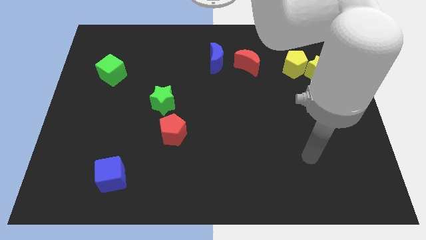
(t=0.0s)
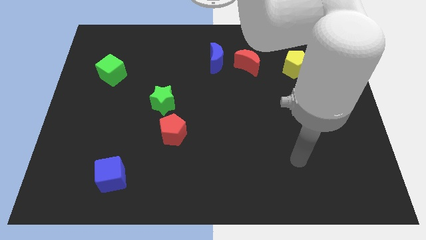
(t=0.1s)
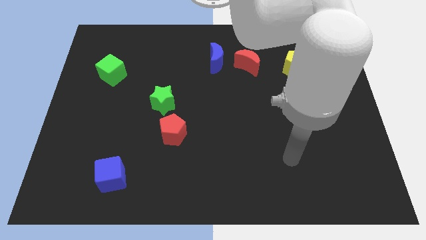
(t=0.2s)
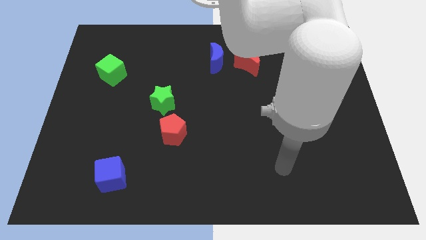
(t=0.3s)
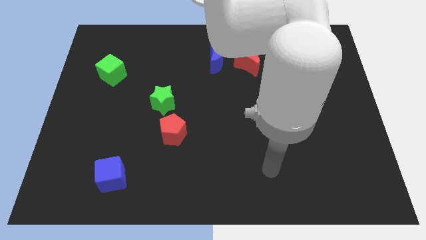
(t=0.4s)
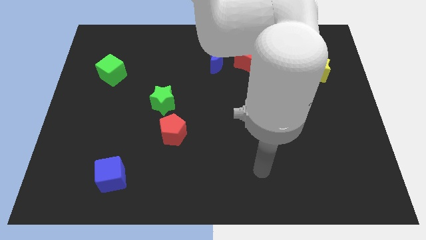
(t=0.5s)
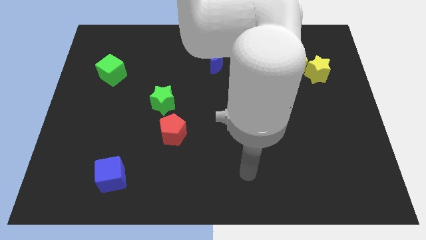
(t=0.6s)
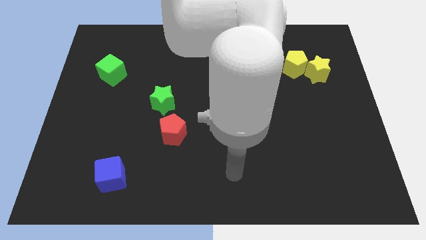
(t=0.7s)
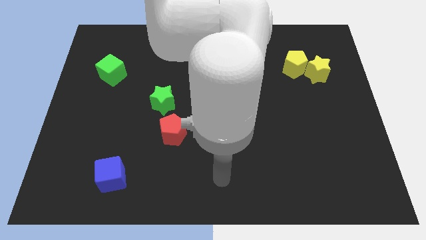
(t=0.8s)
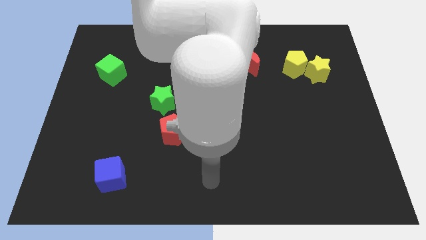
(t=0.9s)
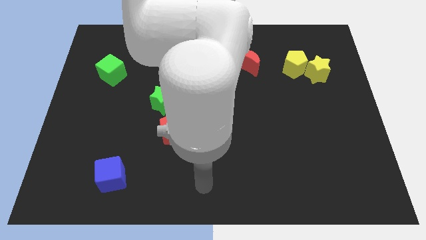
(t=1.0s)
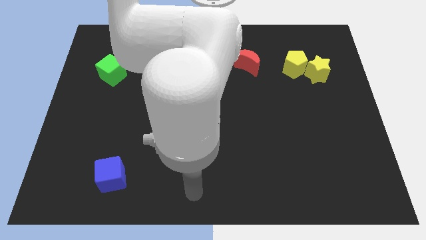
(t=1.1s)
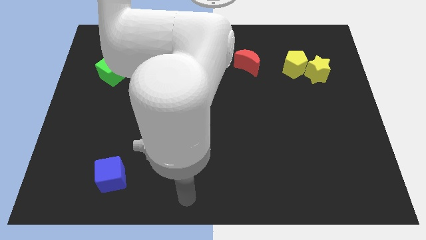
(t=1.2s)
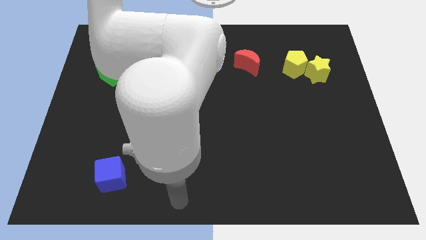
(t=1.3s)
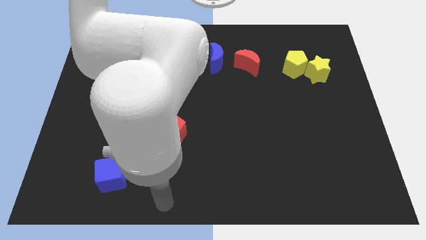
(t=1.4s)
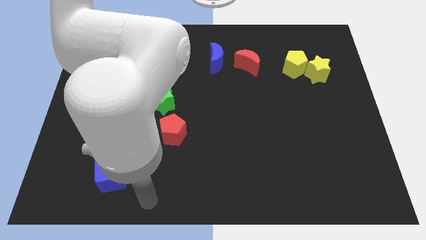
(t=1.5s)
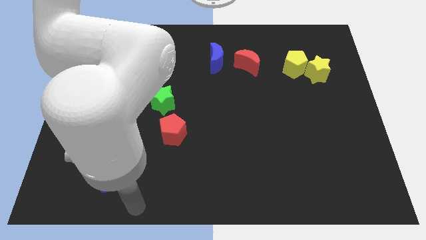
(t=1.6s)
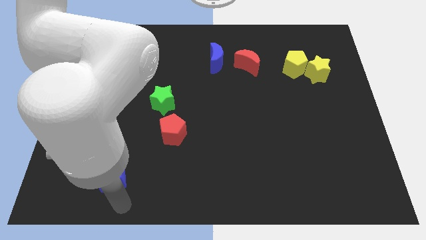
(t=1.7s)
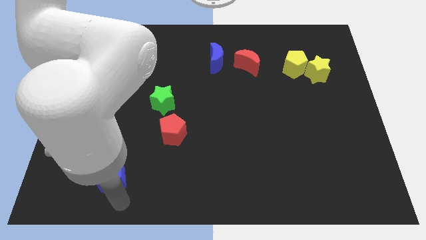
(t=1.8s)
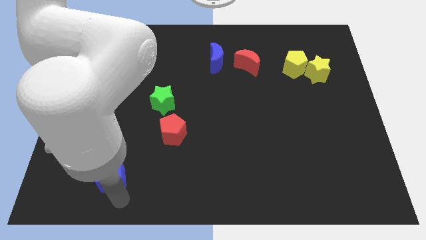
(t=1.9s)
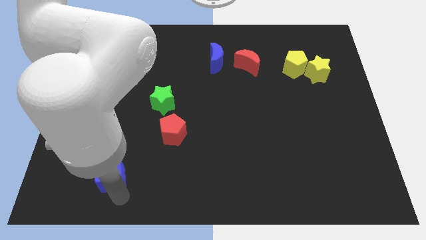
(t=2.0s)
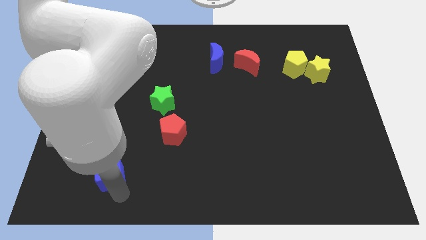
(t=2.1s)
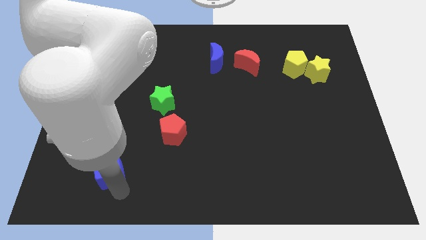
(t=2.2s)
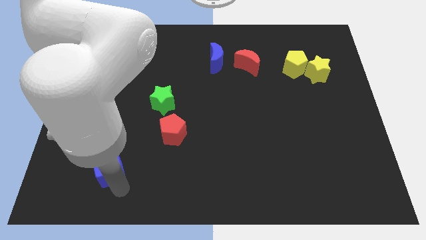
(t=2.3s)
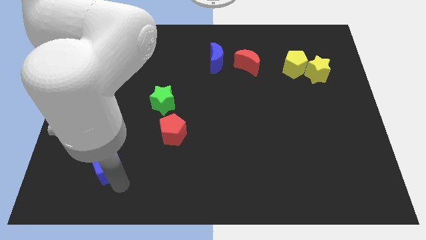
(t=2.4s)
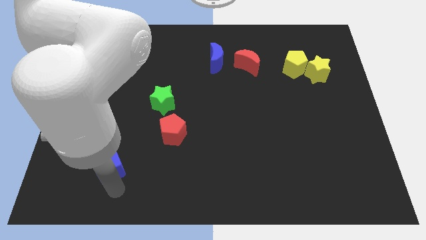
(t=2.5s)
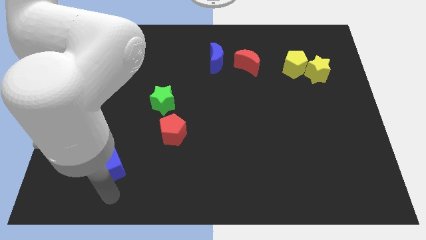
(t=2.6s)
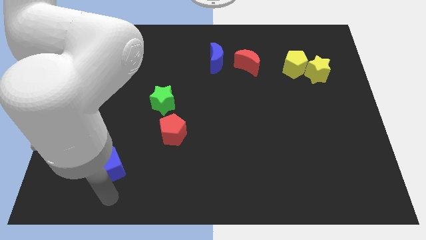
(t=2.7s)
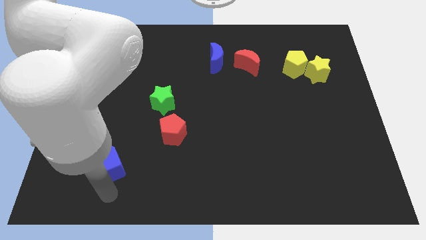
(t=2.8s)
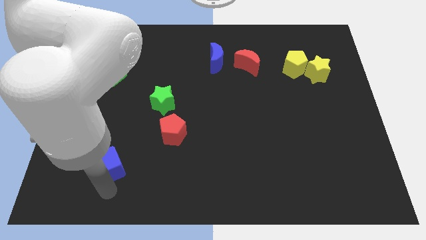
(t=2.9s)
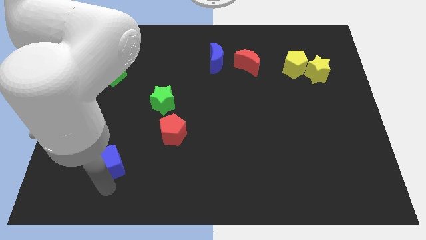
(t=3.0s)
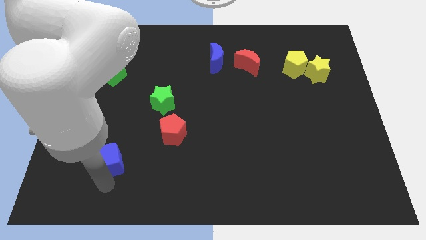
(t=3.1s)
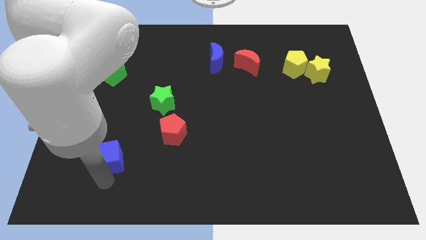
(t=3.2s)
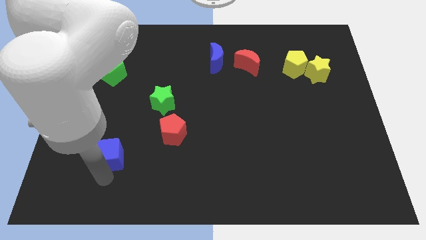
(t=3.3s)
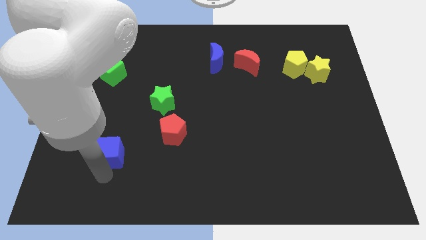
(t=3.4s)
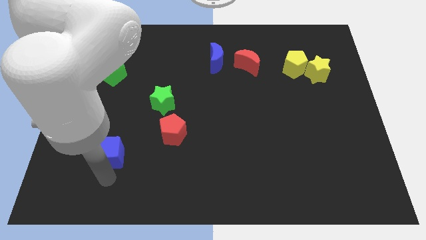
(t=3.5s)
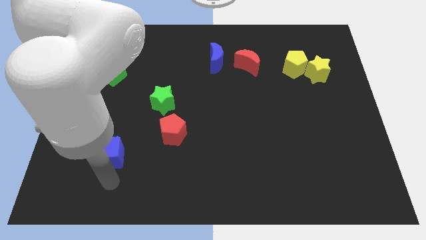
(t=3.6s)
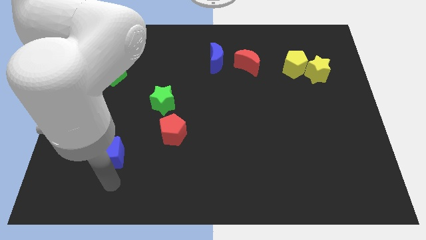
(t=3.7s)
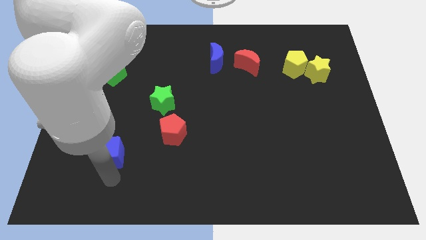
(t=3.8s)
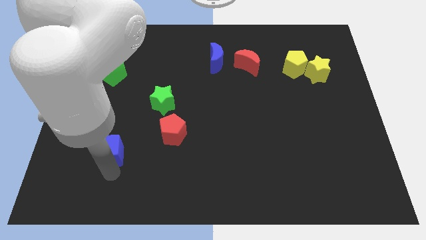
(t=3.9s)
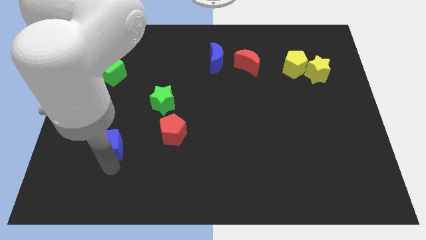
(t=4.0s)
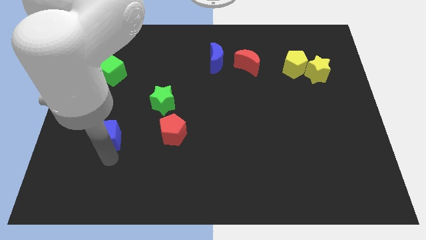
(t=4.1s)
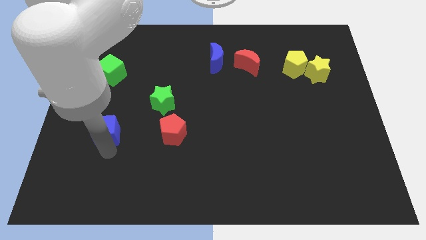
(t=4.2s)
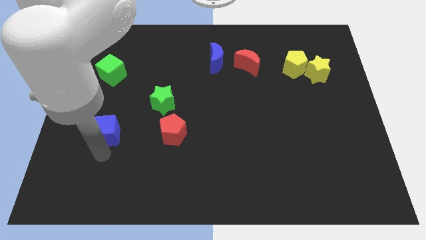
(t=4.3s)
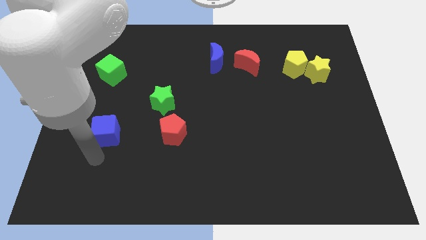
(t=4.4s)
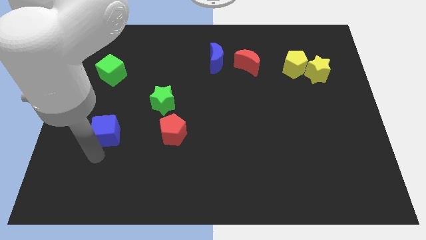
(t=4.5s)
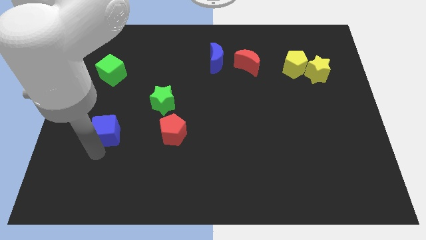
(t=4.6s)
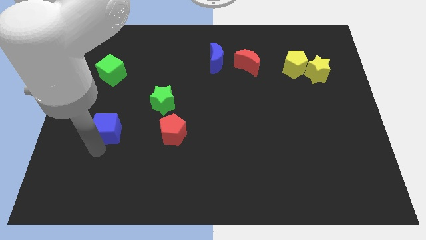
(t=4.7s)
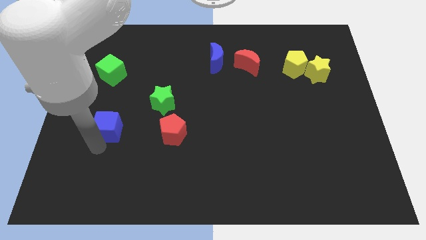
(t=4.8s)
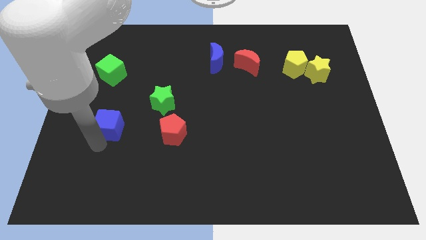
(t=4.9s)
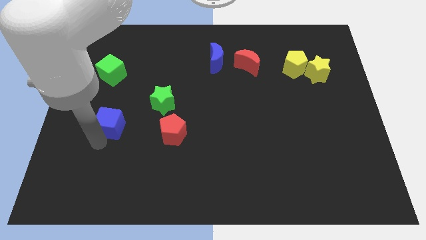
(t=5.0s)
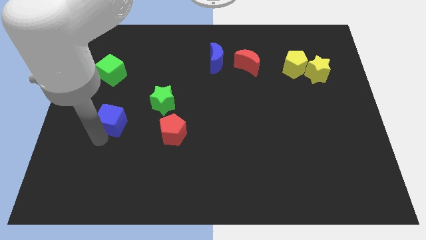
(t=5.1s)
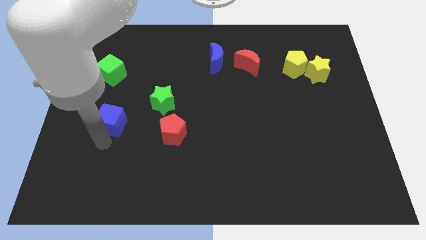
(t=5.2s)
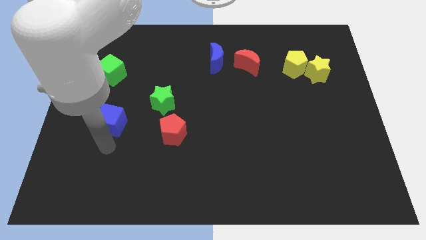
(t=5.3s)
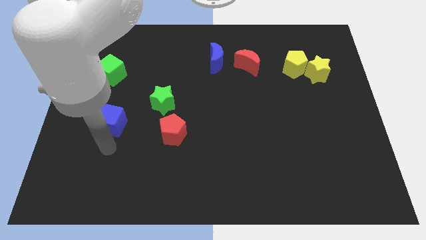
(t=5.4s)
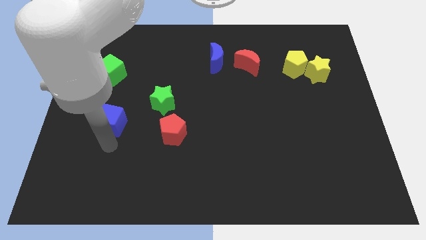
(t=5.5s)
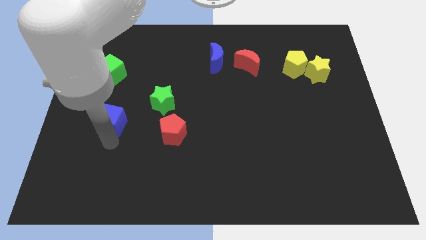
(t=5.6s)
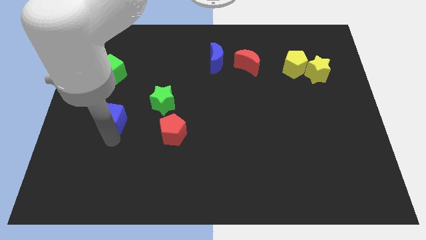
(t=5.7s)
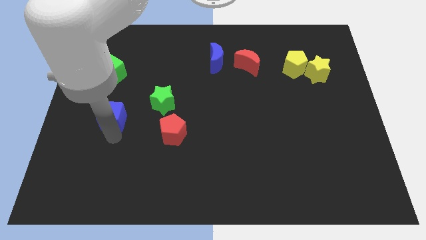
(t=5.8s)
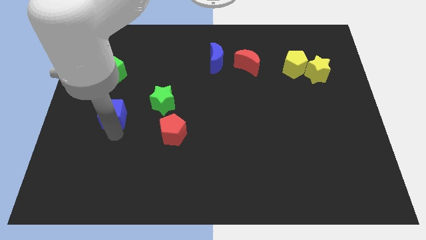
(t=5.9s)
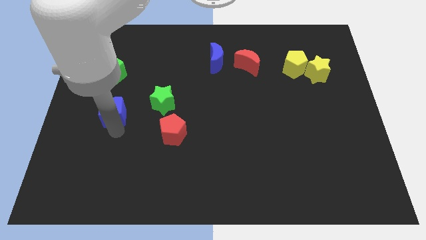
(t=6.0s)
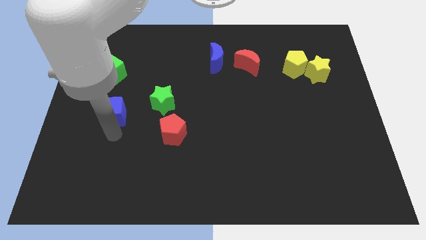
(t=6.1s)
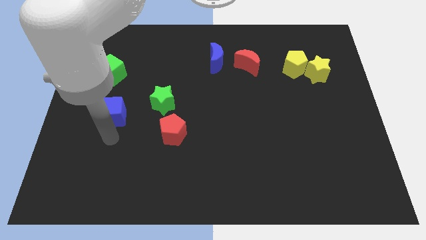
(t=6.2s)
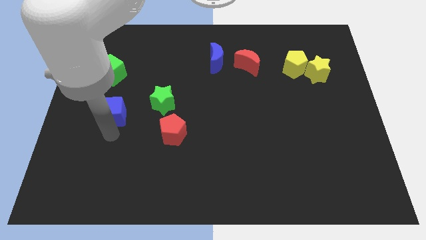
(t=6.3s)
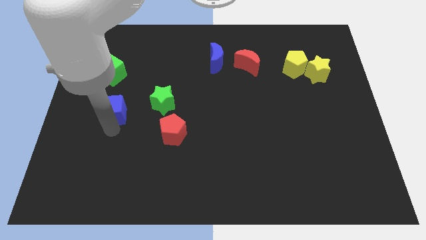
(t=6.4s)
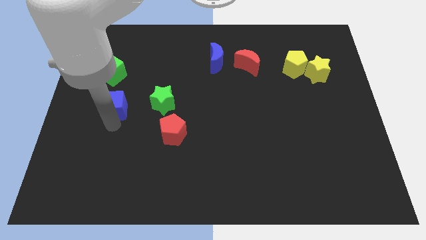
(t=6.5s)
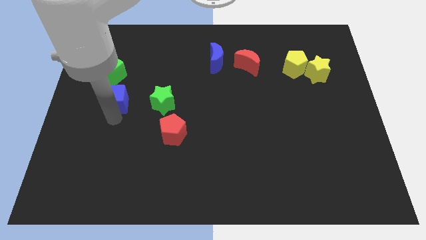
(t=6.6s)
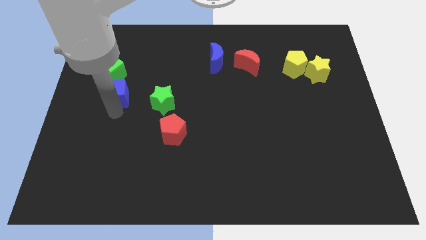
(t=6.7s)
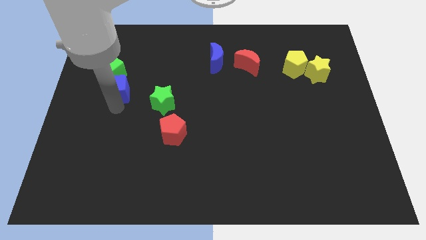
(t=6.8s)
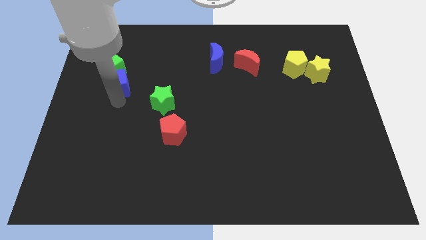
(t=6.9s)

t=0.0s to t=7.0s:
push the blue cube next to the green cube
